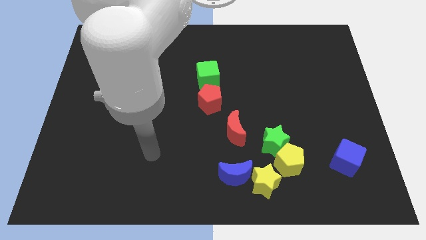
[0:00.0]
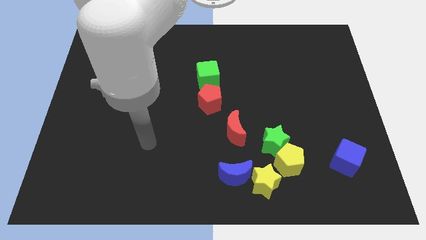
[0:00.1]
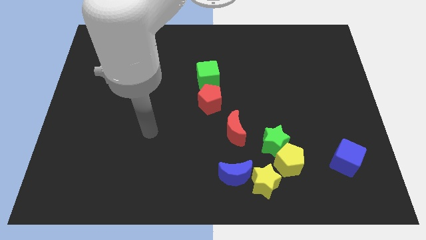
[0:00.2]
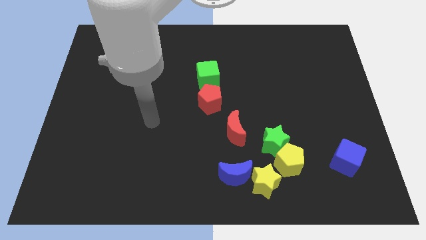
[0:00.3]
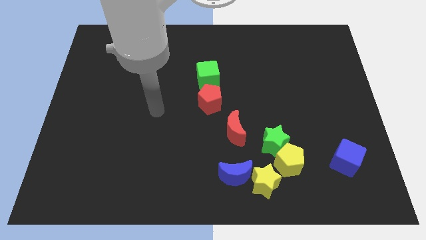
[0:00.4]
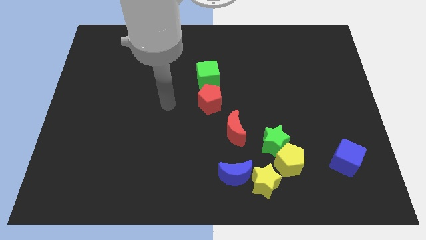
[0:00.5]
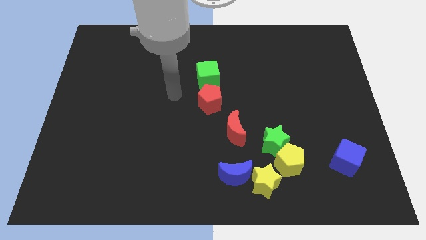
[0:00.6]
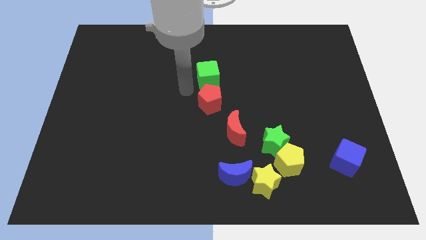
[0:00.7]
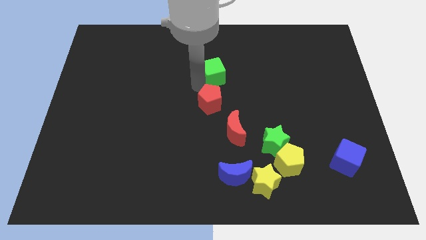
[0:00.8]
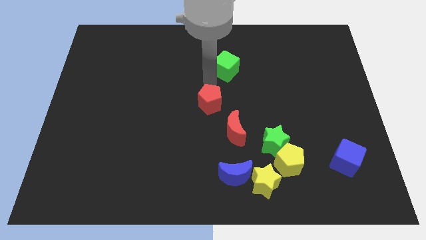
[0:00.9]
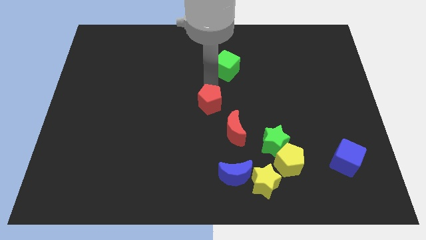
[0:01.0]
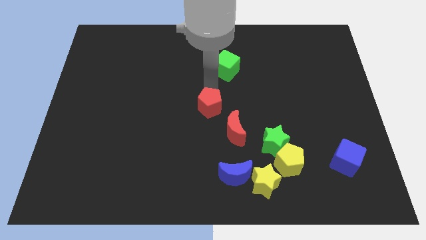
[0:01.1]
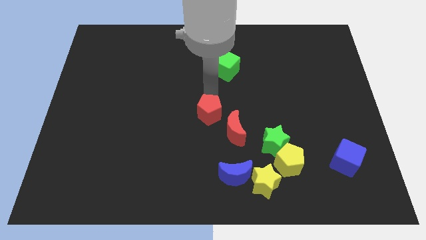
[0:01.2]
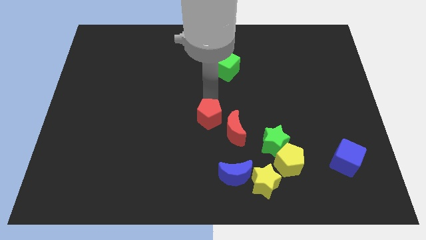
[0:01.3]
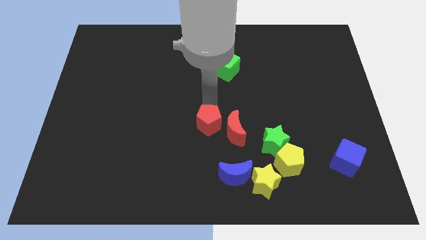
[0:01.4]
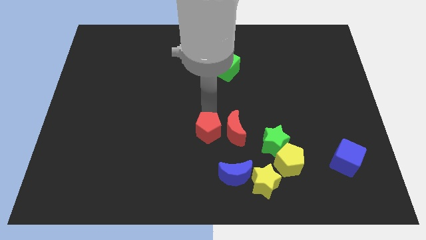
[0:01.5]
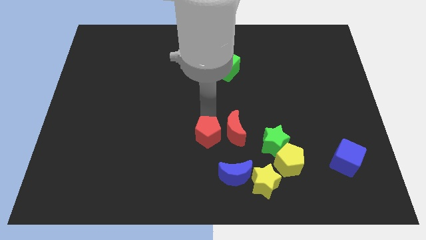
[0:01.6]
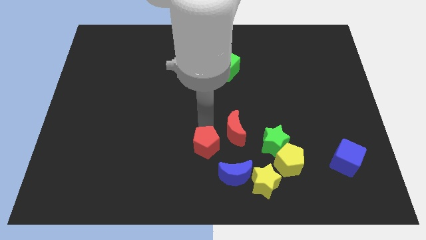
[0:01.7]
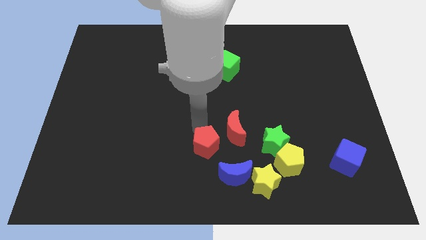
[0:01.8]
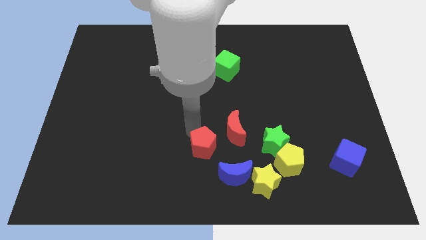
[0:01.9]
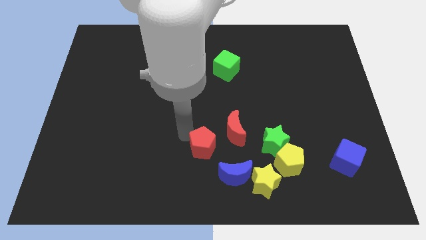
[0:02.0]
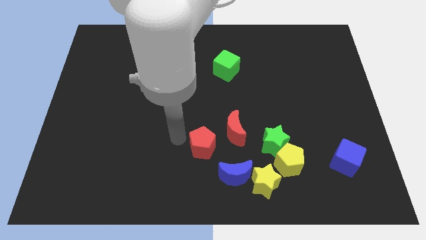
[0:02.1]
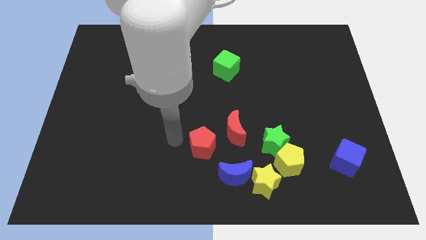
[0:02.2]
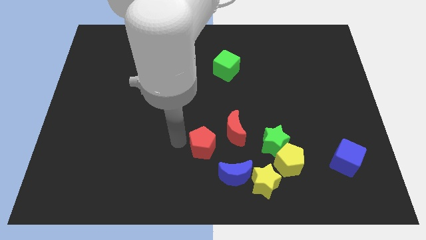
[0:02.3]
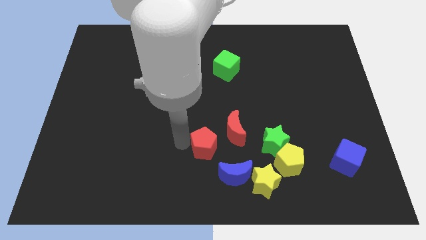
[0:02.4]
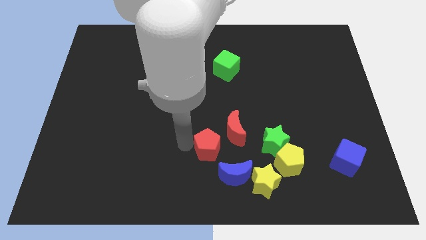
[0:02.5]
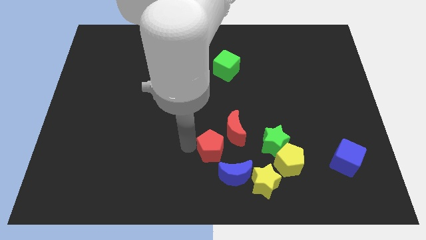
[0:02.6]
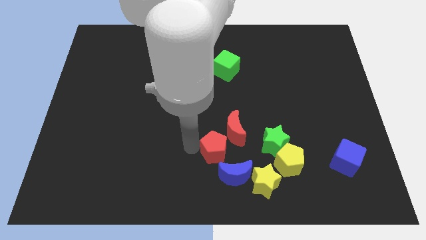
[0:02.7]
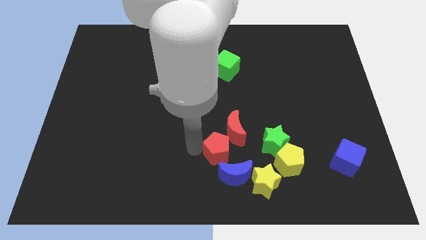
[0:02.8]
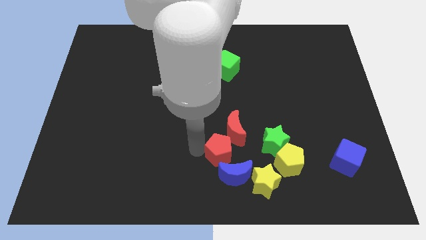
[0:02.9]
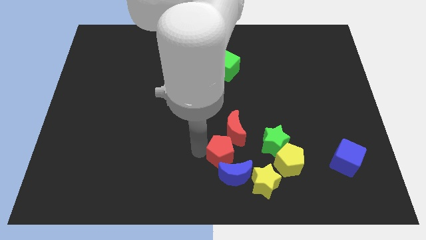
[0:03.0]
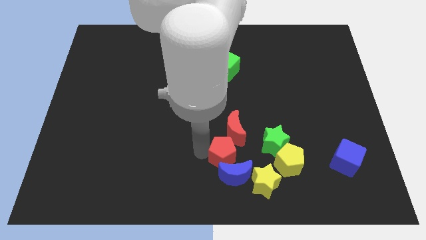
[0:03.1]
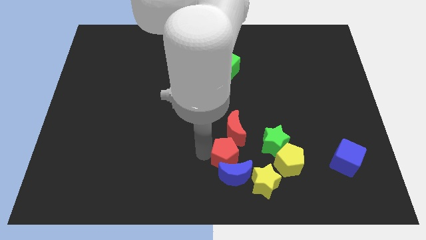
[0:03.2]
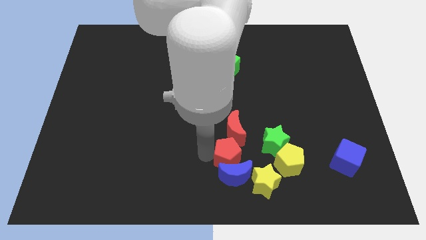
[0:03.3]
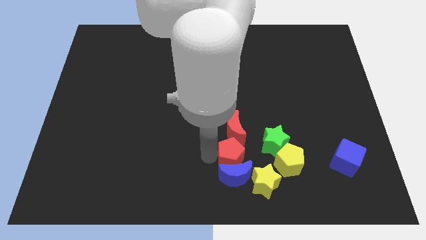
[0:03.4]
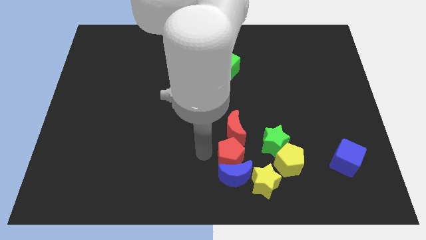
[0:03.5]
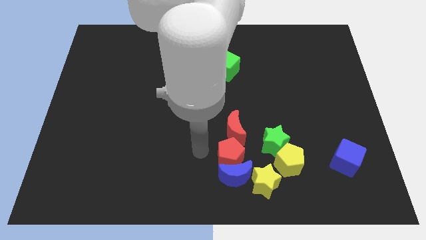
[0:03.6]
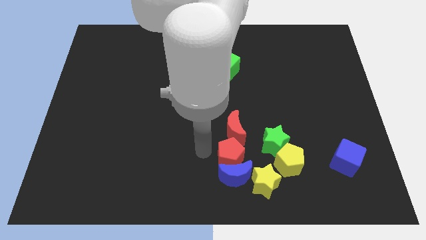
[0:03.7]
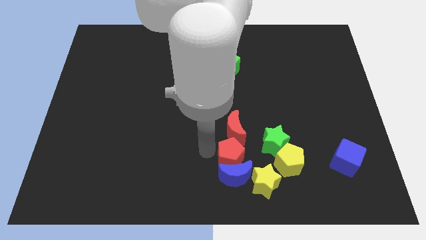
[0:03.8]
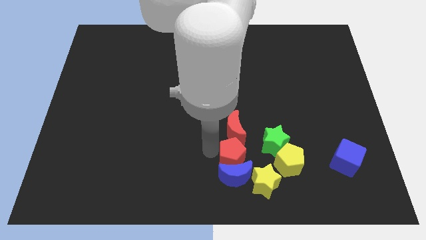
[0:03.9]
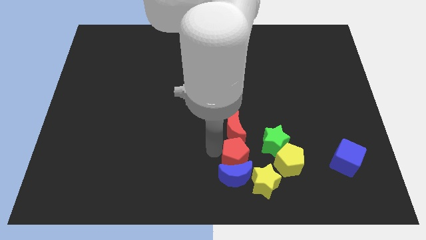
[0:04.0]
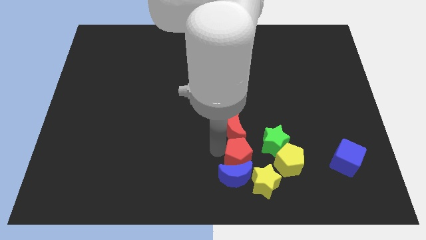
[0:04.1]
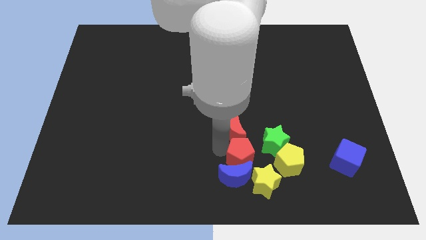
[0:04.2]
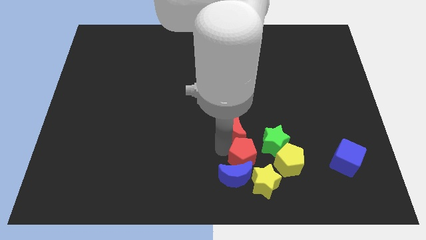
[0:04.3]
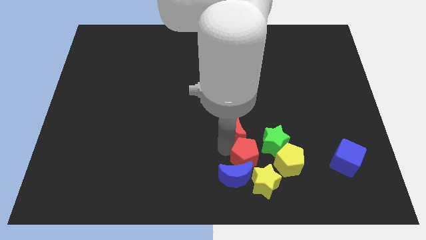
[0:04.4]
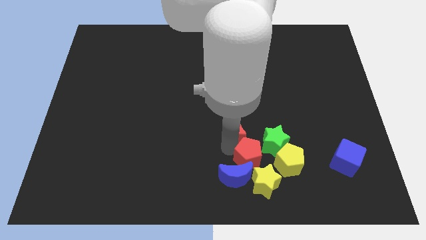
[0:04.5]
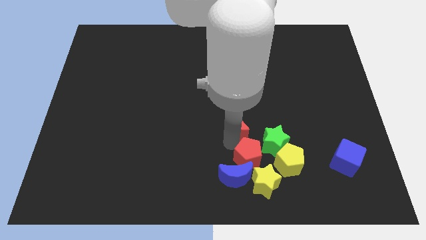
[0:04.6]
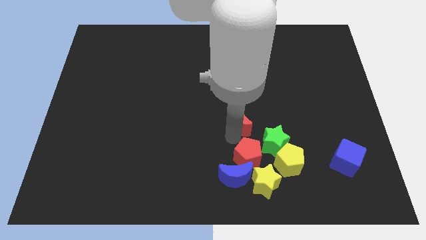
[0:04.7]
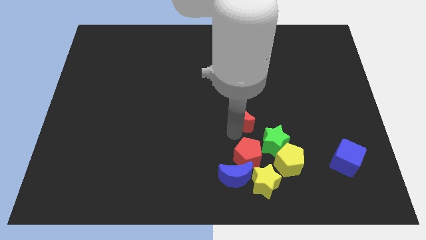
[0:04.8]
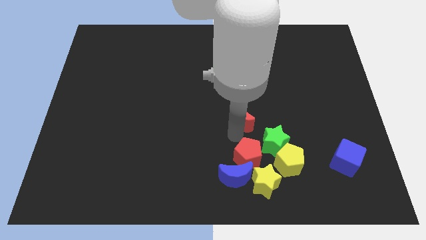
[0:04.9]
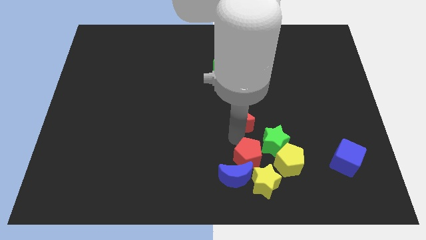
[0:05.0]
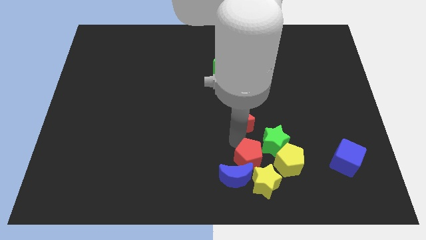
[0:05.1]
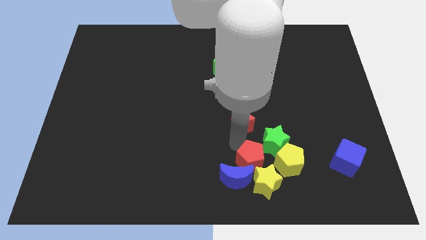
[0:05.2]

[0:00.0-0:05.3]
put the red pentagon to the yellow star

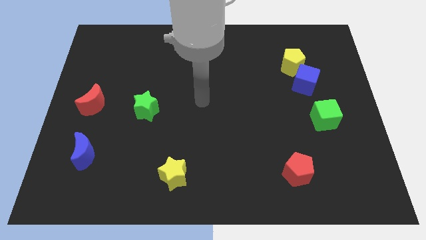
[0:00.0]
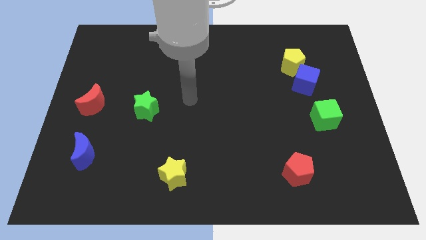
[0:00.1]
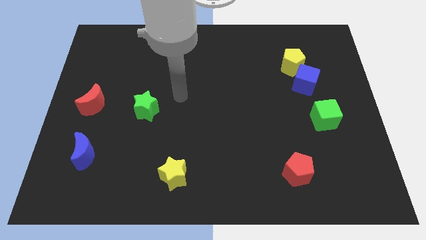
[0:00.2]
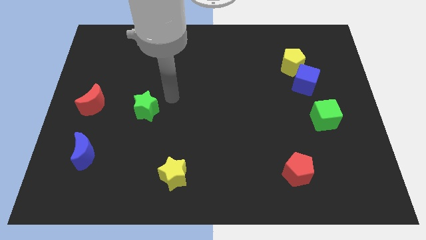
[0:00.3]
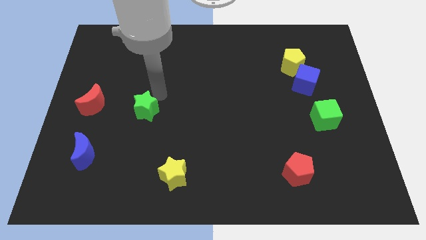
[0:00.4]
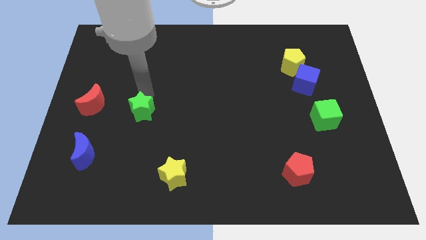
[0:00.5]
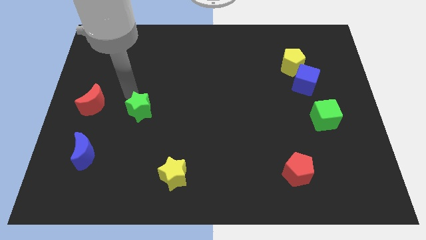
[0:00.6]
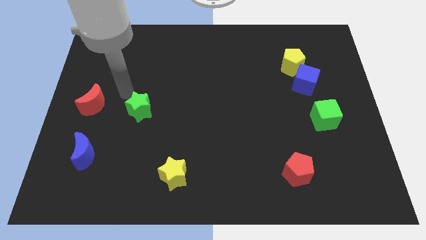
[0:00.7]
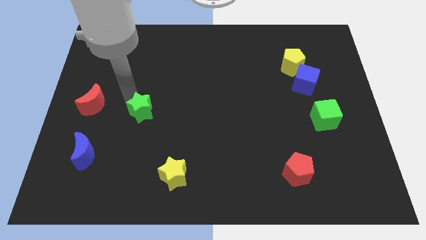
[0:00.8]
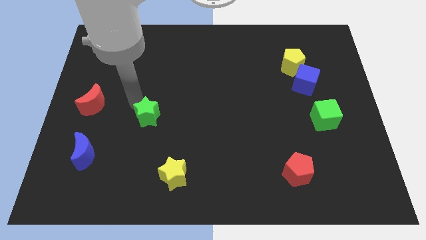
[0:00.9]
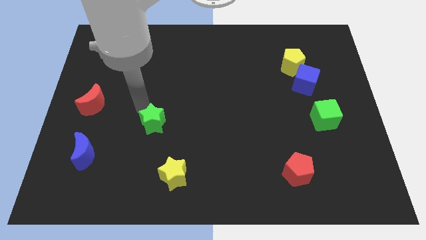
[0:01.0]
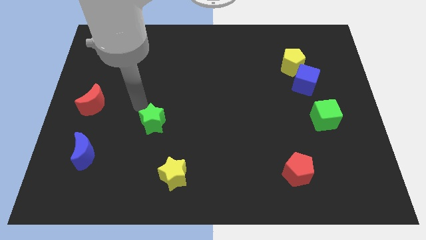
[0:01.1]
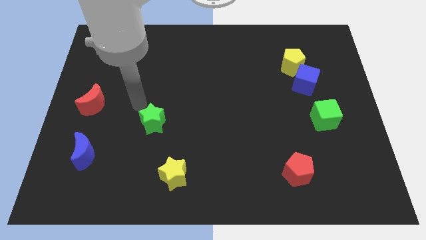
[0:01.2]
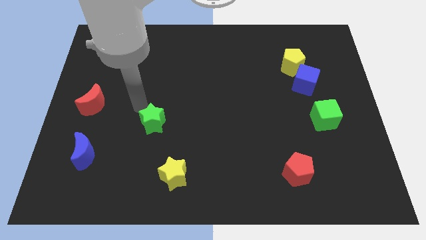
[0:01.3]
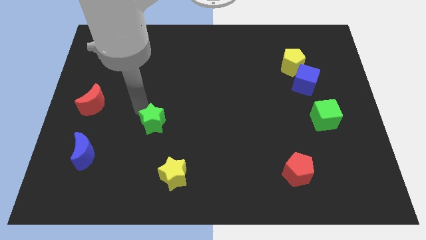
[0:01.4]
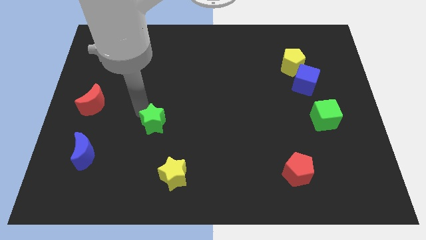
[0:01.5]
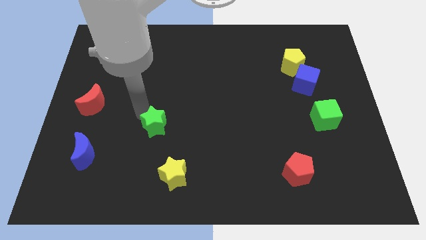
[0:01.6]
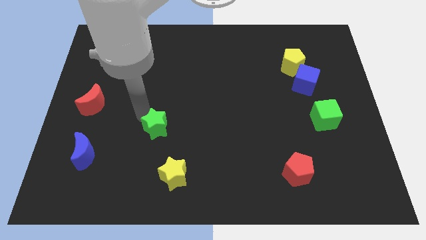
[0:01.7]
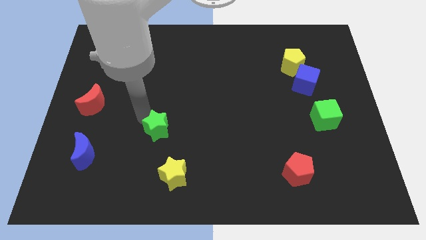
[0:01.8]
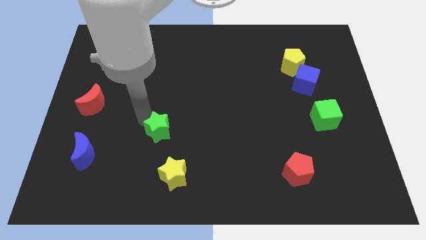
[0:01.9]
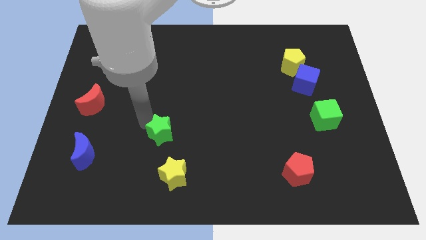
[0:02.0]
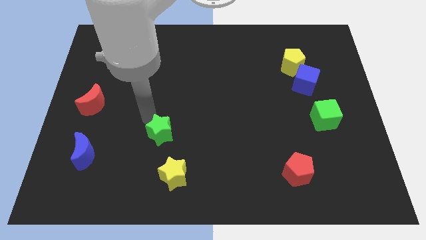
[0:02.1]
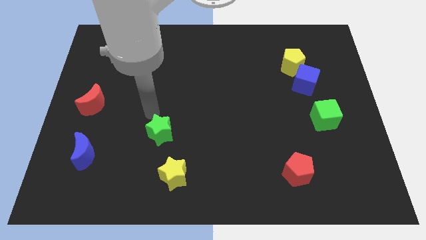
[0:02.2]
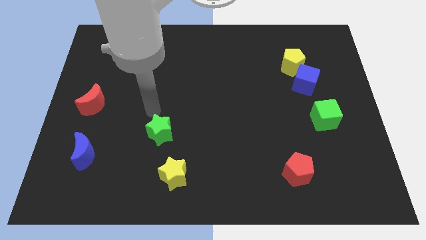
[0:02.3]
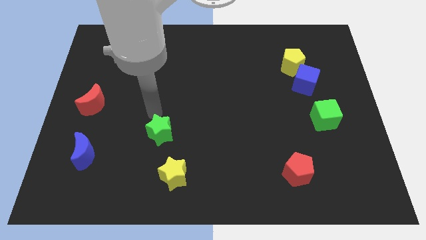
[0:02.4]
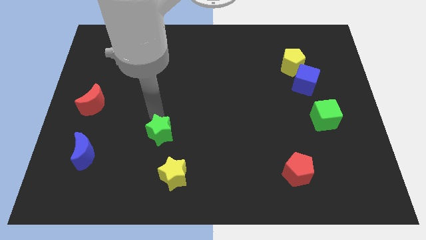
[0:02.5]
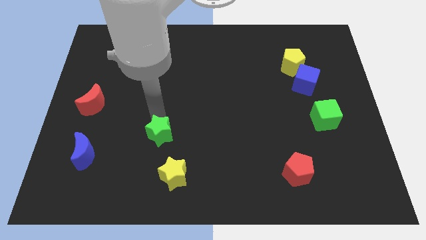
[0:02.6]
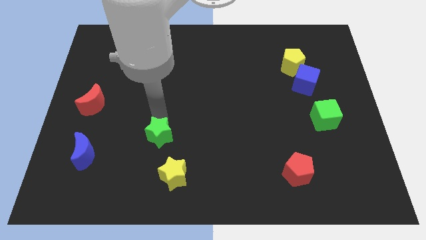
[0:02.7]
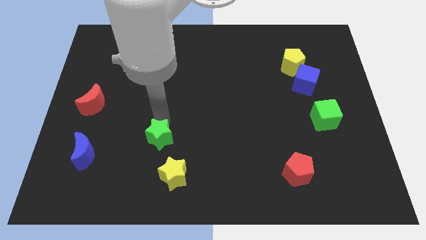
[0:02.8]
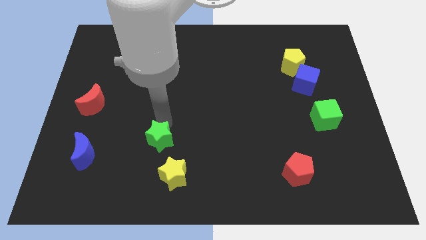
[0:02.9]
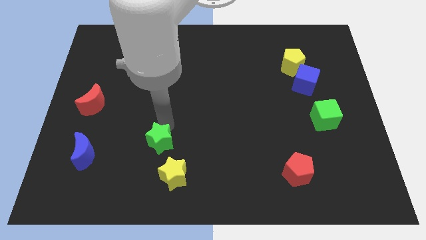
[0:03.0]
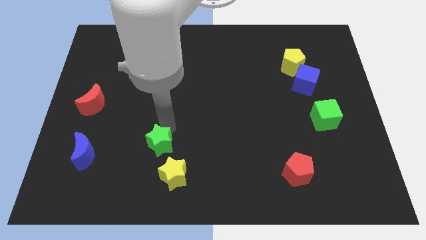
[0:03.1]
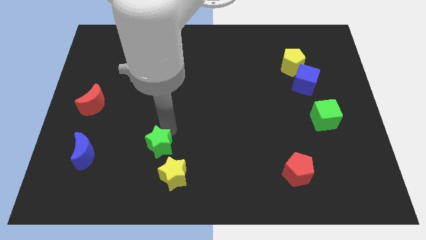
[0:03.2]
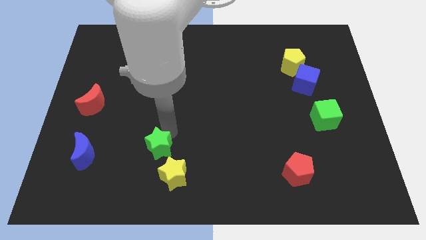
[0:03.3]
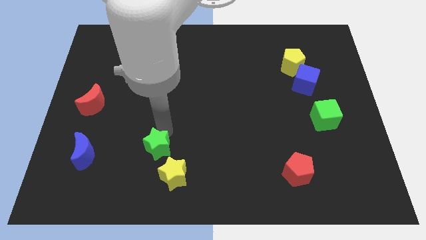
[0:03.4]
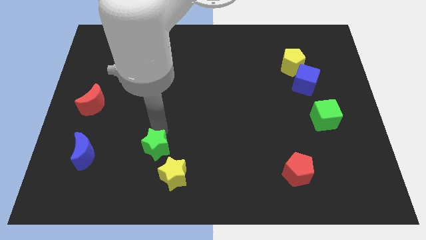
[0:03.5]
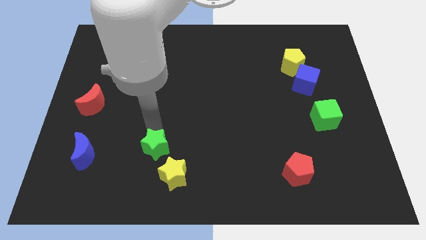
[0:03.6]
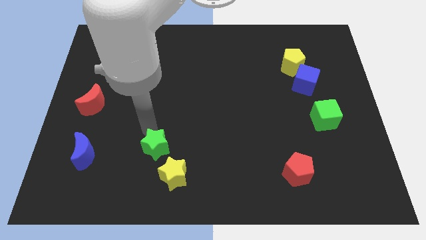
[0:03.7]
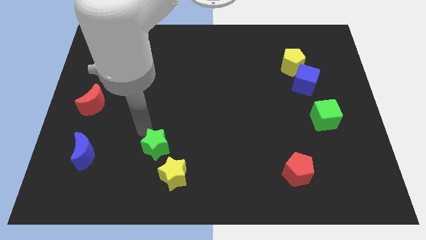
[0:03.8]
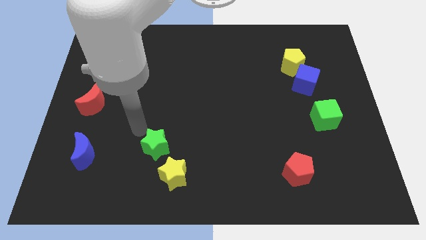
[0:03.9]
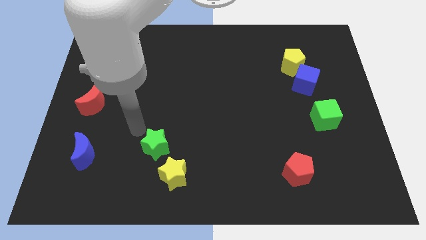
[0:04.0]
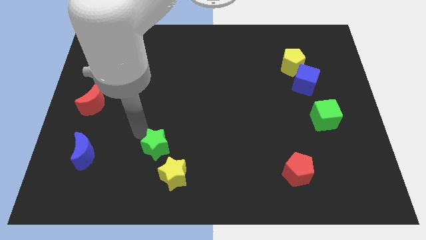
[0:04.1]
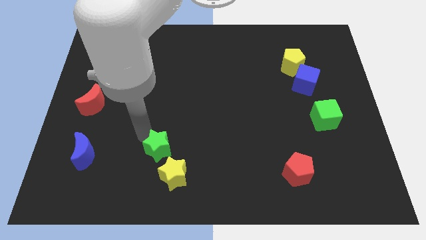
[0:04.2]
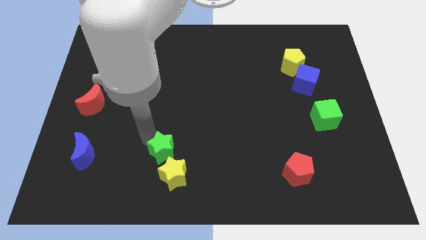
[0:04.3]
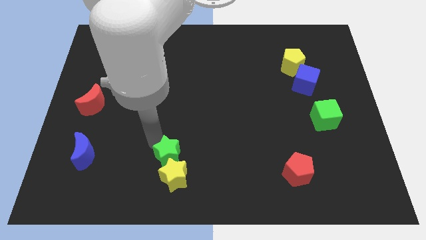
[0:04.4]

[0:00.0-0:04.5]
slide the green star next to the yellow star
